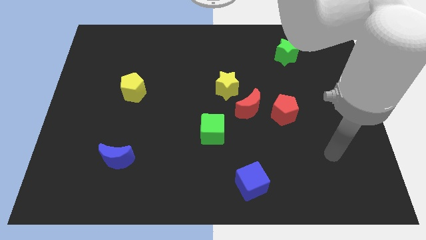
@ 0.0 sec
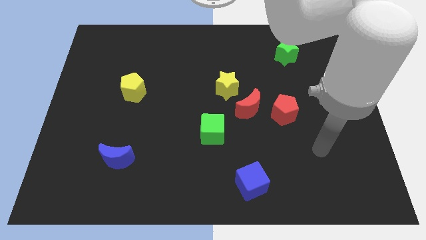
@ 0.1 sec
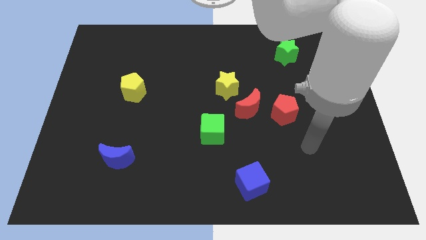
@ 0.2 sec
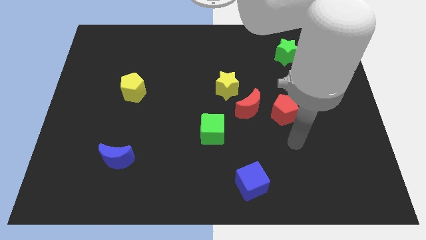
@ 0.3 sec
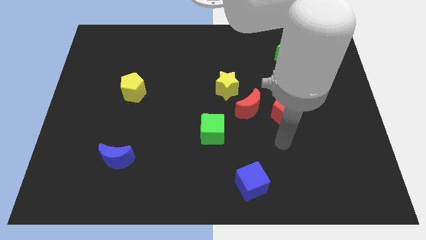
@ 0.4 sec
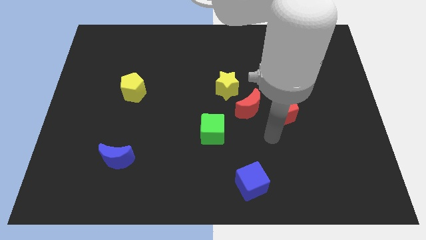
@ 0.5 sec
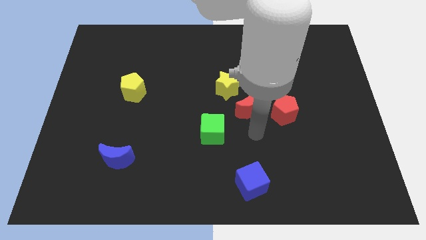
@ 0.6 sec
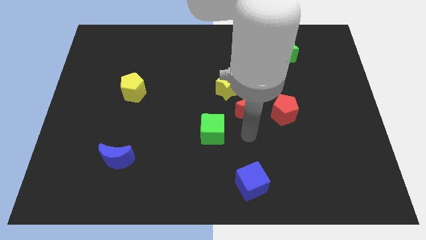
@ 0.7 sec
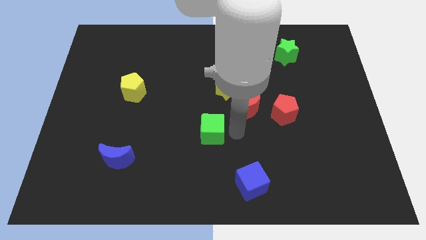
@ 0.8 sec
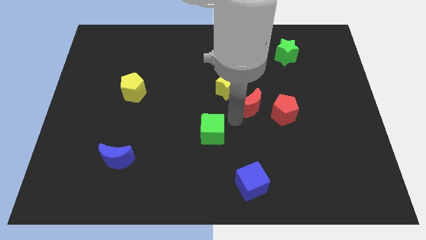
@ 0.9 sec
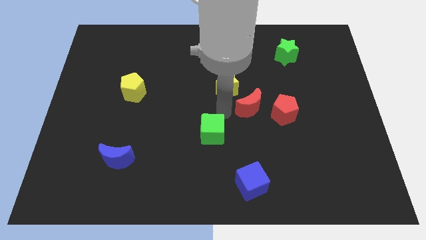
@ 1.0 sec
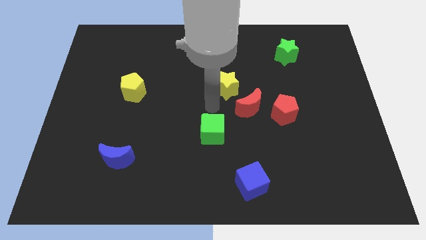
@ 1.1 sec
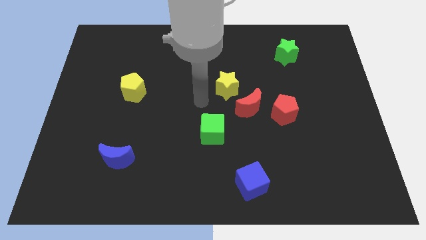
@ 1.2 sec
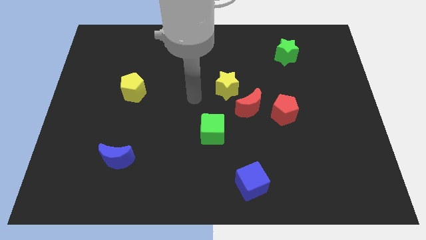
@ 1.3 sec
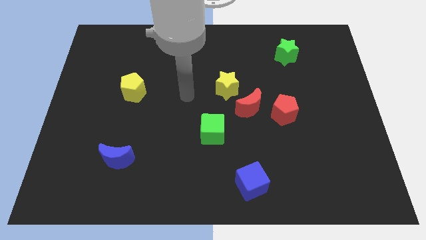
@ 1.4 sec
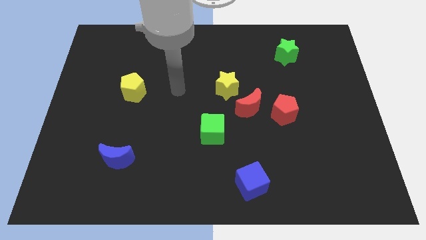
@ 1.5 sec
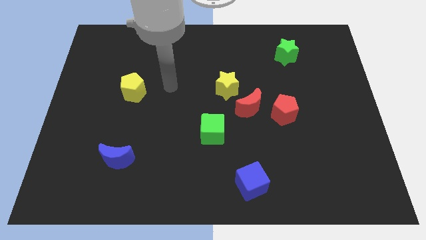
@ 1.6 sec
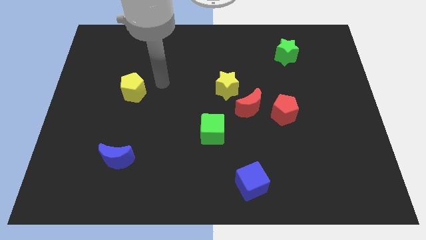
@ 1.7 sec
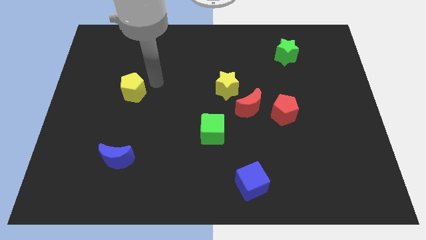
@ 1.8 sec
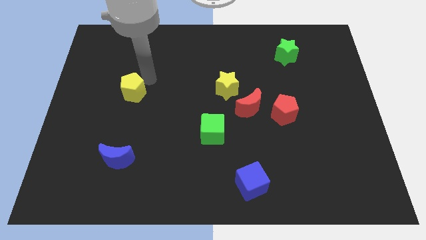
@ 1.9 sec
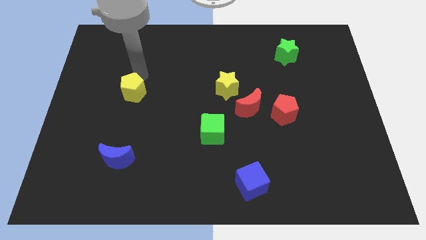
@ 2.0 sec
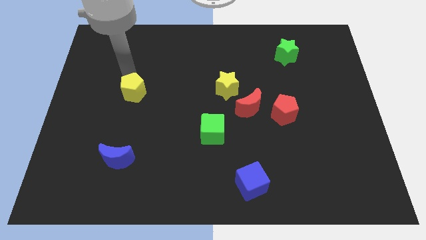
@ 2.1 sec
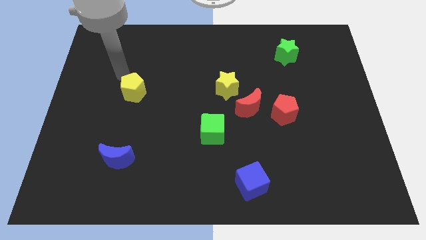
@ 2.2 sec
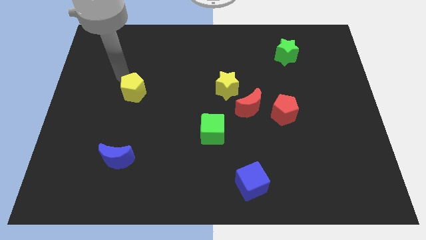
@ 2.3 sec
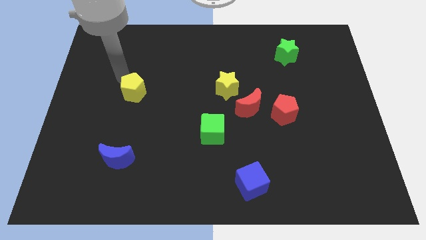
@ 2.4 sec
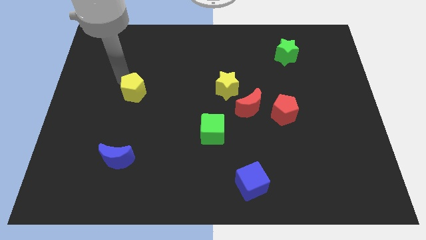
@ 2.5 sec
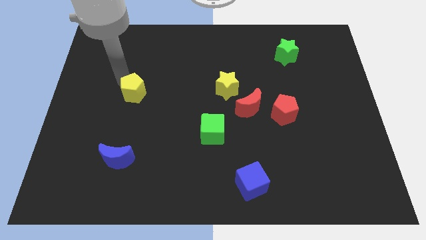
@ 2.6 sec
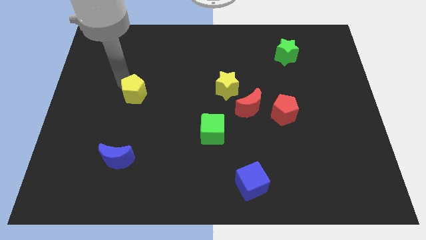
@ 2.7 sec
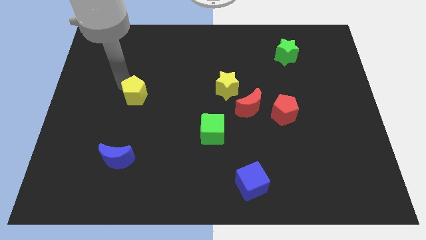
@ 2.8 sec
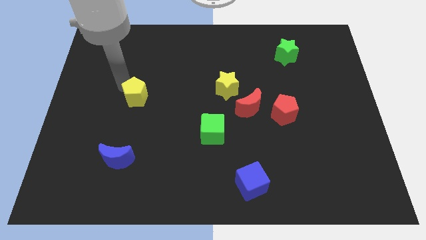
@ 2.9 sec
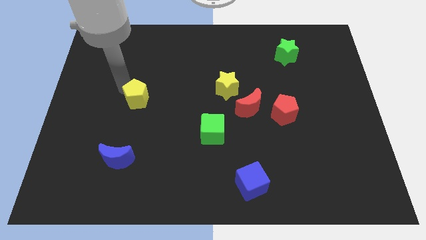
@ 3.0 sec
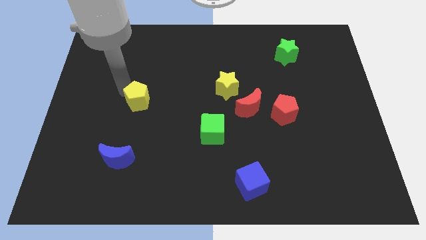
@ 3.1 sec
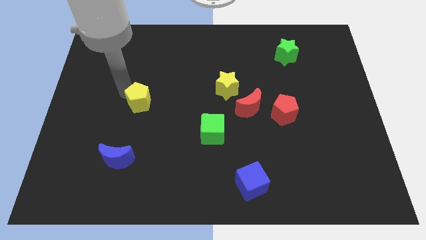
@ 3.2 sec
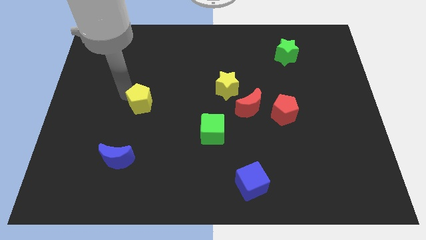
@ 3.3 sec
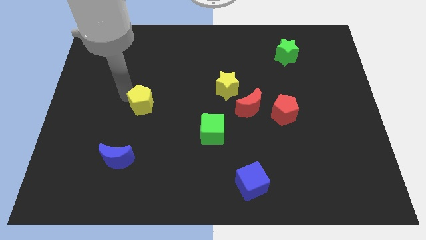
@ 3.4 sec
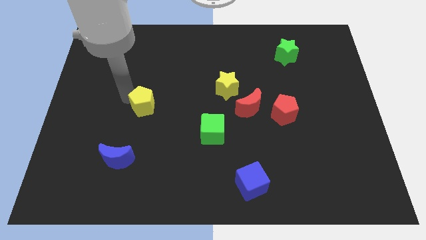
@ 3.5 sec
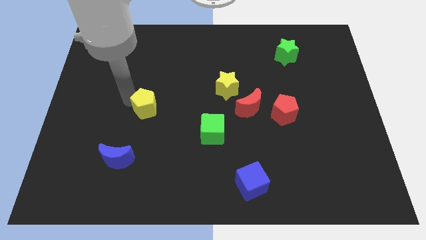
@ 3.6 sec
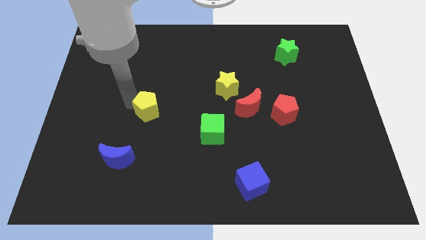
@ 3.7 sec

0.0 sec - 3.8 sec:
slightly move the yellow pentagon downwards and to the right

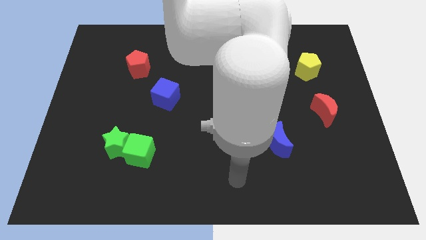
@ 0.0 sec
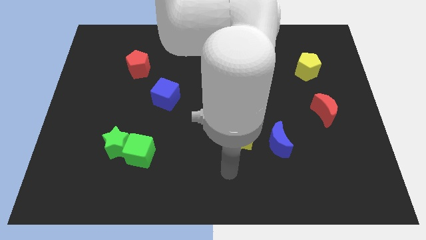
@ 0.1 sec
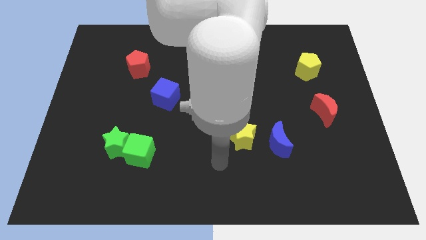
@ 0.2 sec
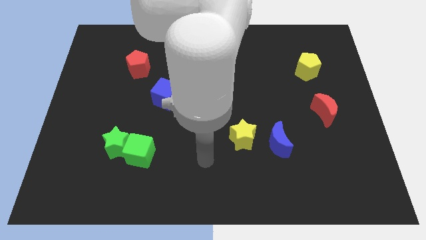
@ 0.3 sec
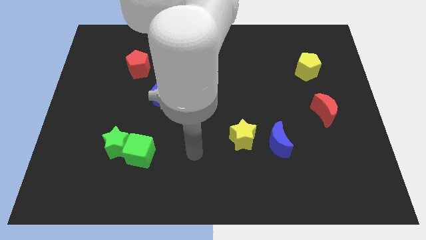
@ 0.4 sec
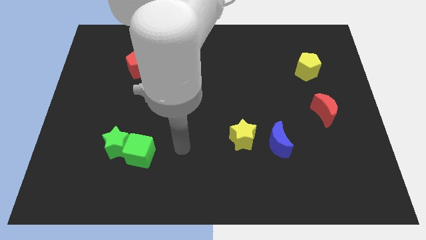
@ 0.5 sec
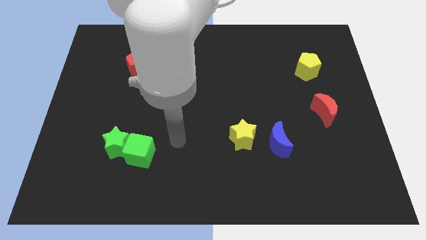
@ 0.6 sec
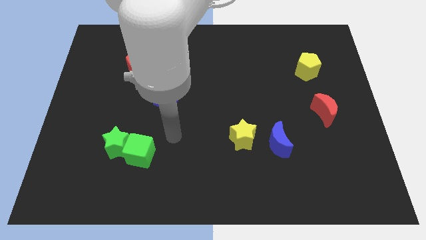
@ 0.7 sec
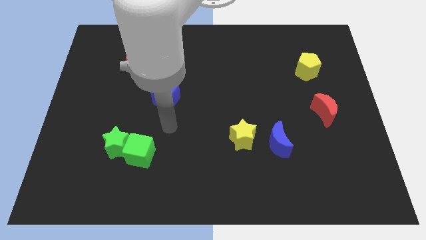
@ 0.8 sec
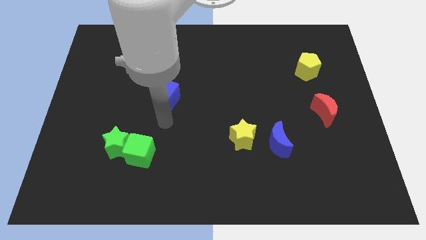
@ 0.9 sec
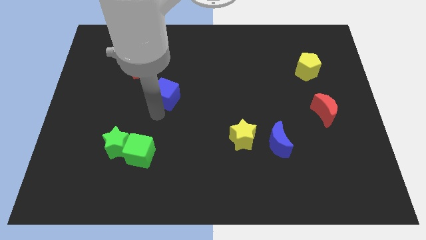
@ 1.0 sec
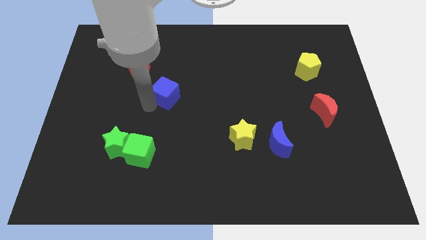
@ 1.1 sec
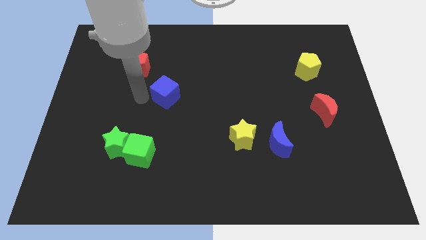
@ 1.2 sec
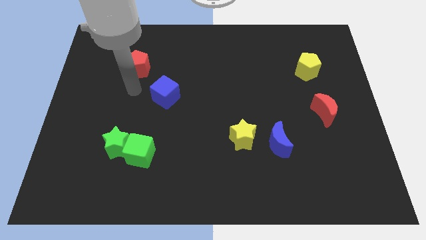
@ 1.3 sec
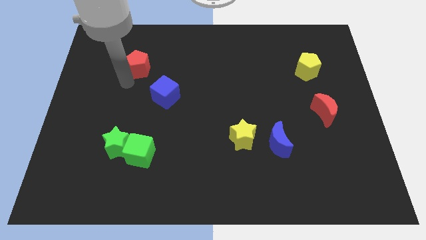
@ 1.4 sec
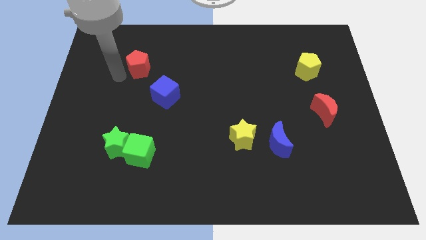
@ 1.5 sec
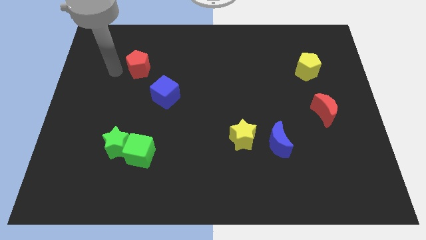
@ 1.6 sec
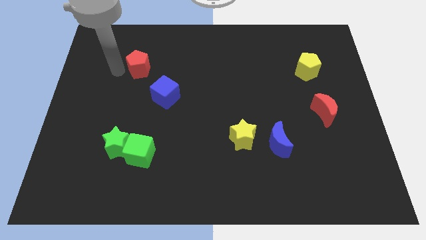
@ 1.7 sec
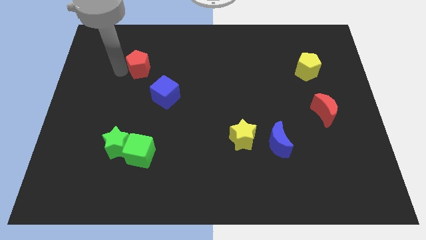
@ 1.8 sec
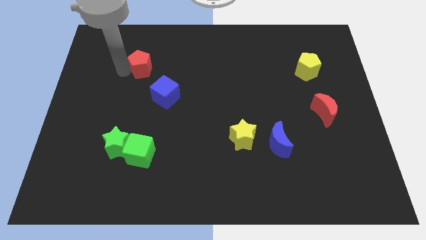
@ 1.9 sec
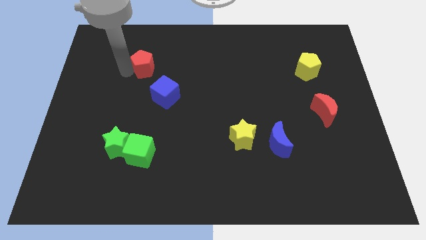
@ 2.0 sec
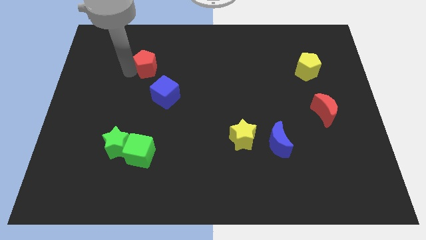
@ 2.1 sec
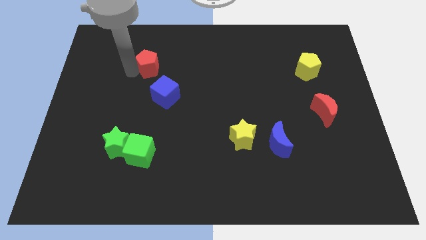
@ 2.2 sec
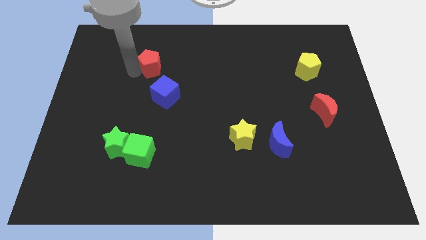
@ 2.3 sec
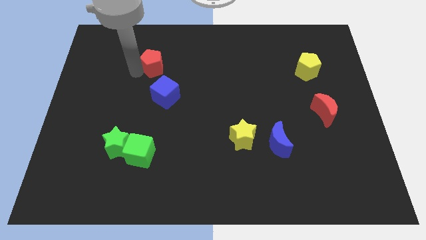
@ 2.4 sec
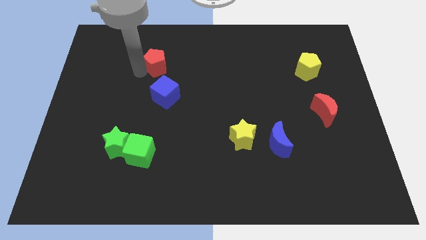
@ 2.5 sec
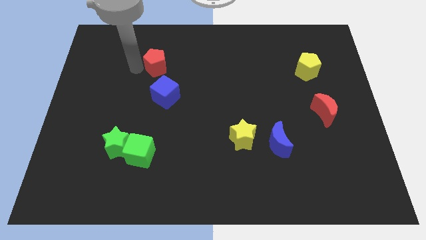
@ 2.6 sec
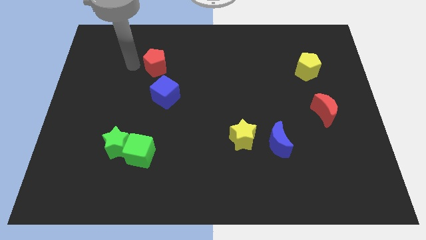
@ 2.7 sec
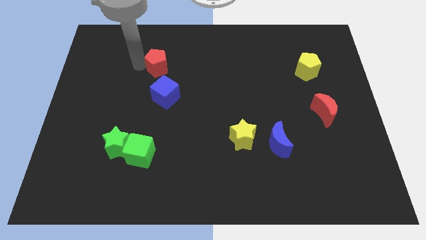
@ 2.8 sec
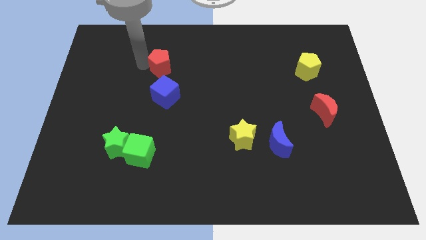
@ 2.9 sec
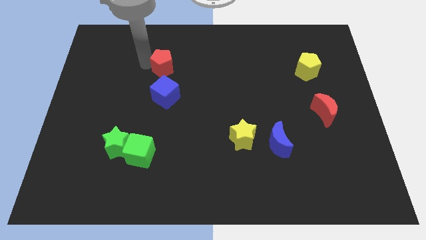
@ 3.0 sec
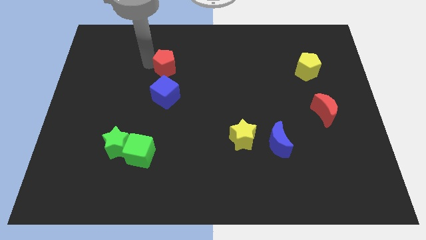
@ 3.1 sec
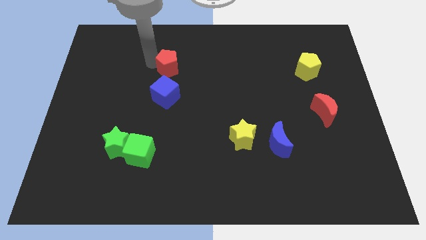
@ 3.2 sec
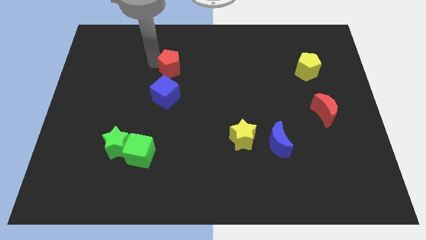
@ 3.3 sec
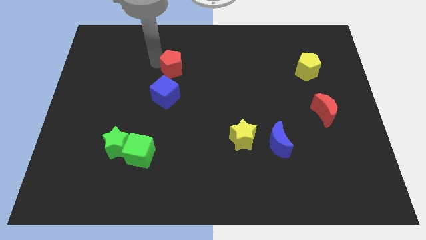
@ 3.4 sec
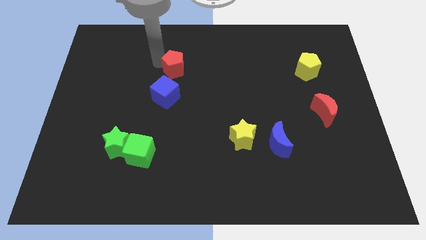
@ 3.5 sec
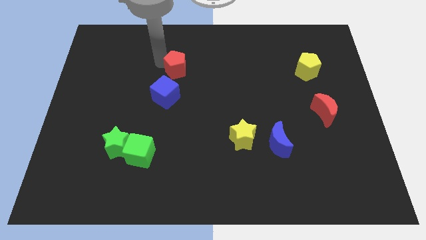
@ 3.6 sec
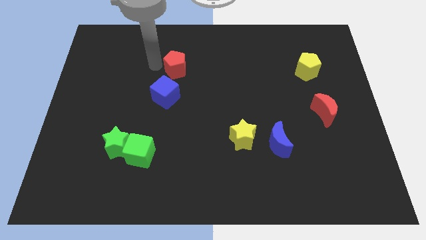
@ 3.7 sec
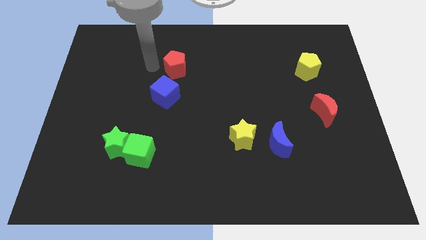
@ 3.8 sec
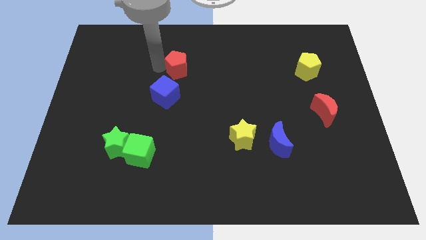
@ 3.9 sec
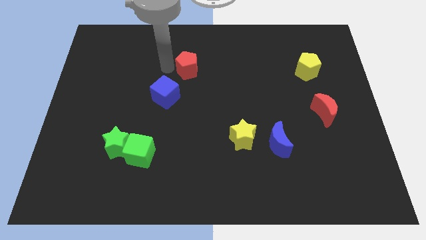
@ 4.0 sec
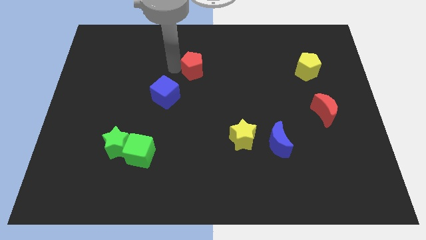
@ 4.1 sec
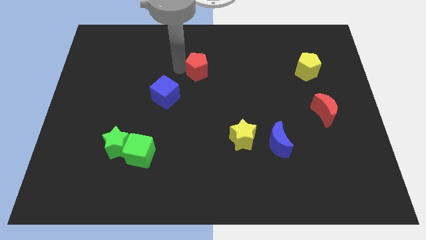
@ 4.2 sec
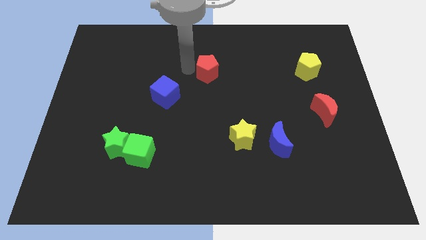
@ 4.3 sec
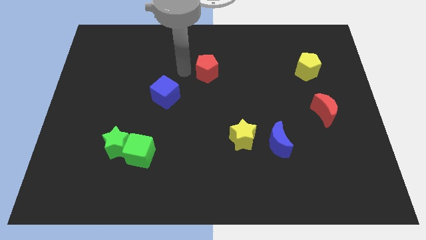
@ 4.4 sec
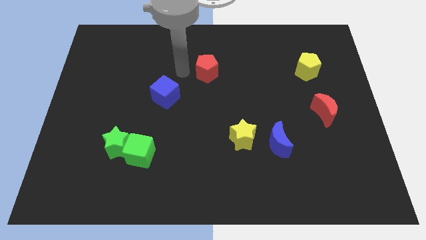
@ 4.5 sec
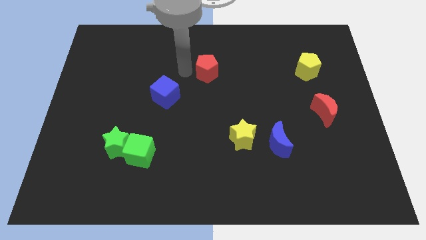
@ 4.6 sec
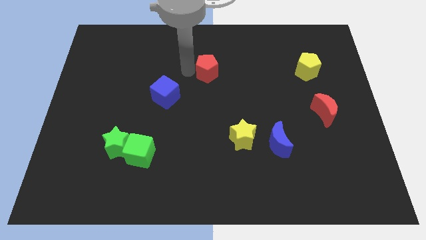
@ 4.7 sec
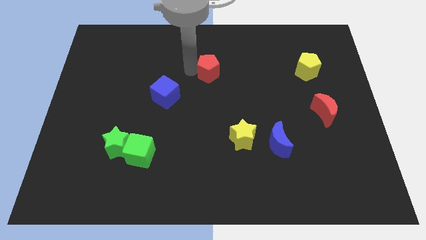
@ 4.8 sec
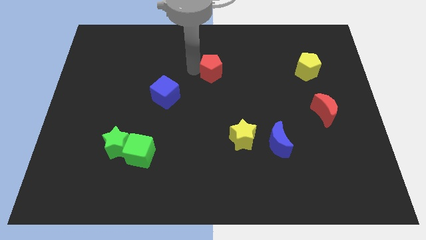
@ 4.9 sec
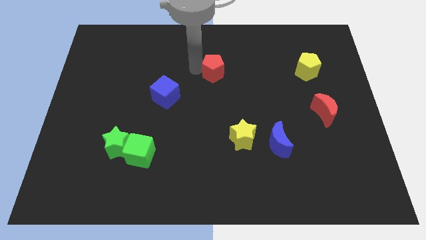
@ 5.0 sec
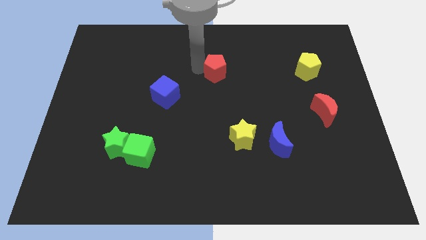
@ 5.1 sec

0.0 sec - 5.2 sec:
slide the red pentagon right
